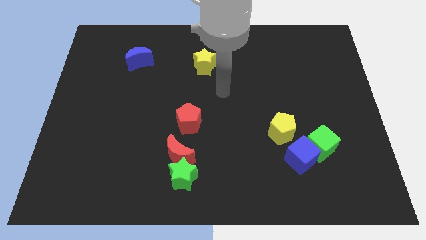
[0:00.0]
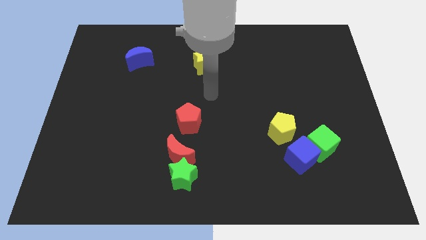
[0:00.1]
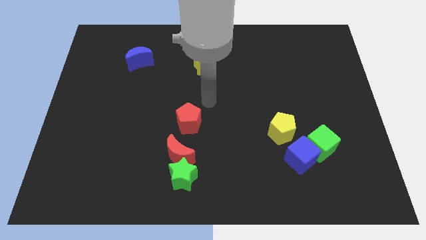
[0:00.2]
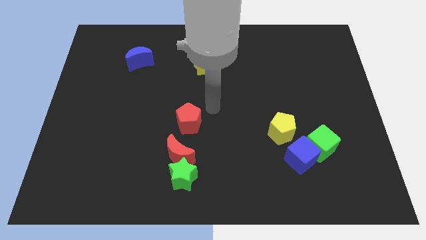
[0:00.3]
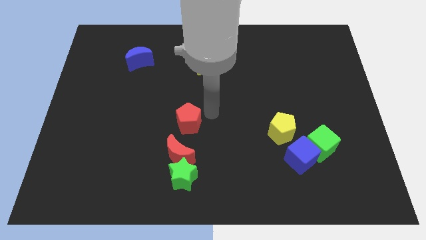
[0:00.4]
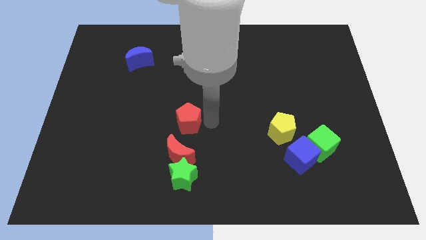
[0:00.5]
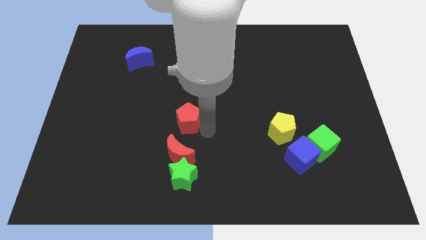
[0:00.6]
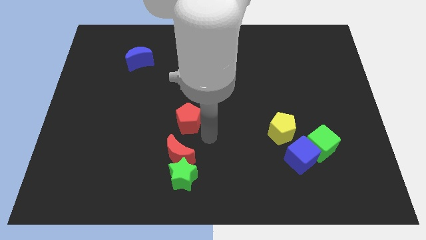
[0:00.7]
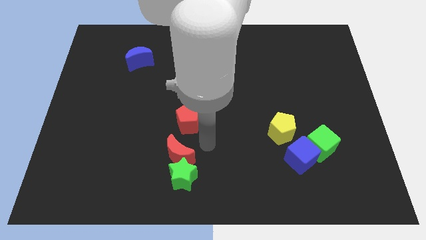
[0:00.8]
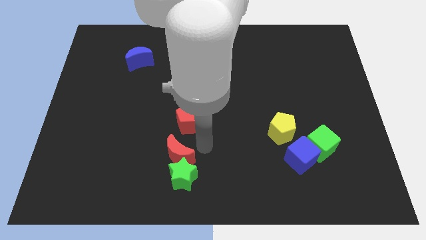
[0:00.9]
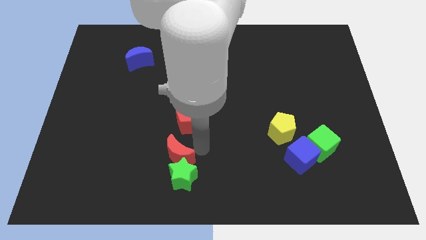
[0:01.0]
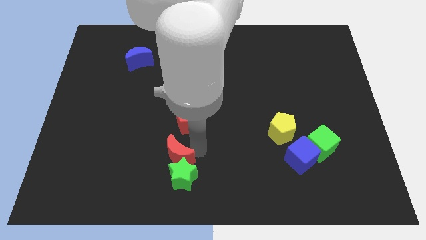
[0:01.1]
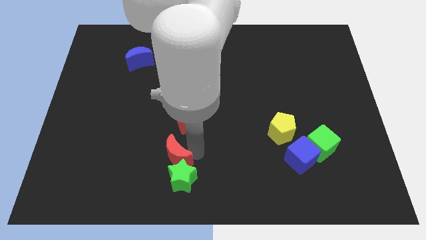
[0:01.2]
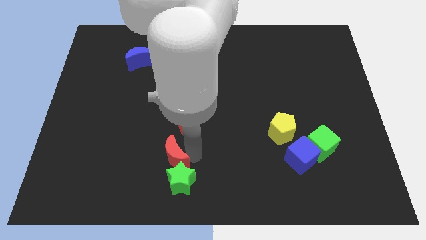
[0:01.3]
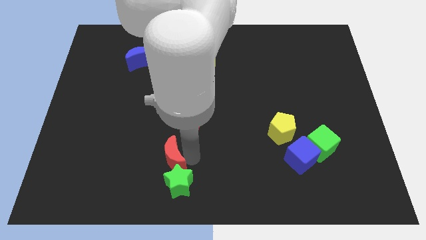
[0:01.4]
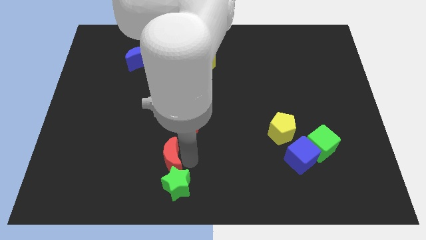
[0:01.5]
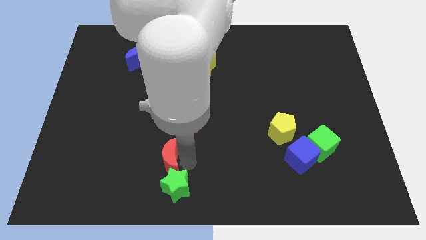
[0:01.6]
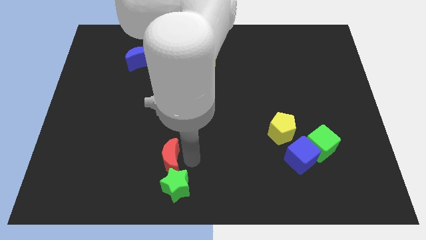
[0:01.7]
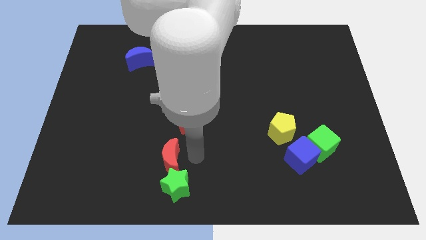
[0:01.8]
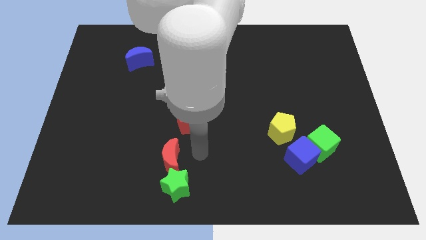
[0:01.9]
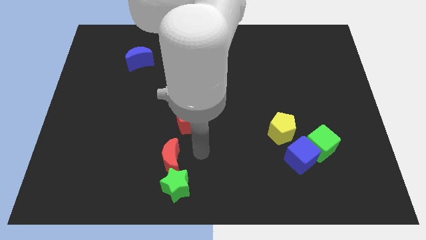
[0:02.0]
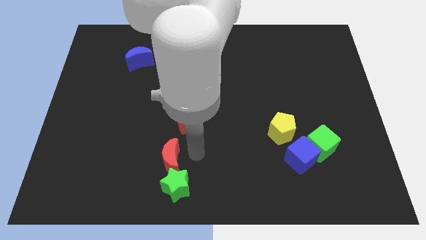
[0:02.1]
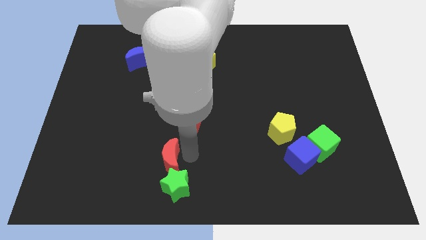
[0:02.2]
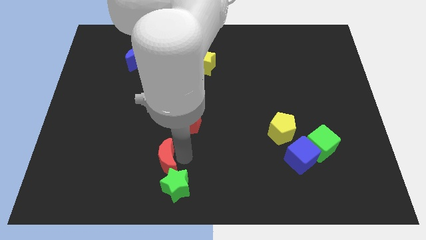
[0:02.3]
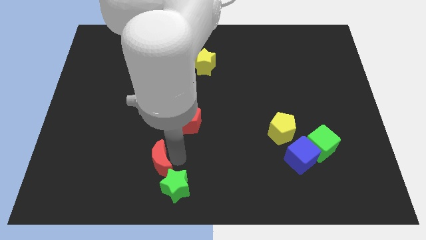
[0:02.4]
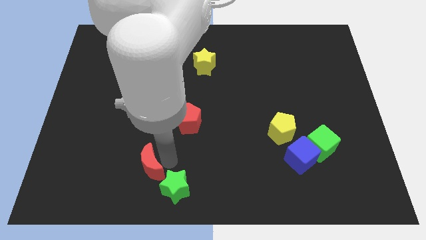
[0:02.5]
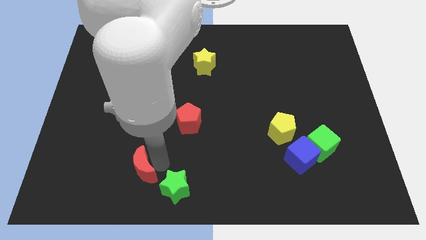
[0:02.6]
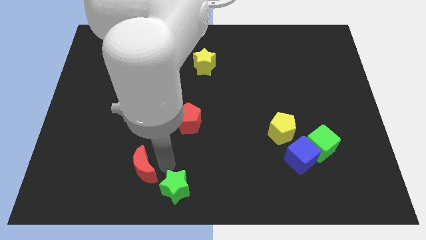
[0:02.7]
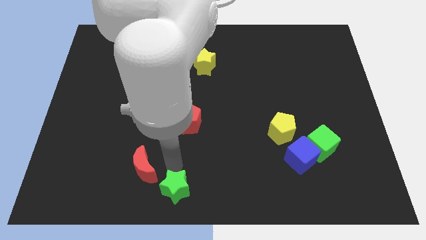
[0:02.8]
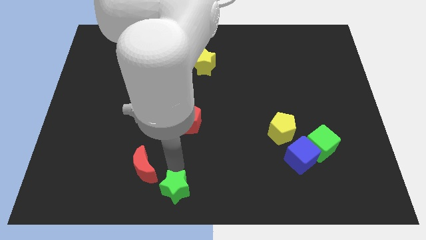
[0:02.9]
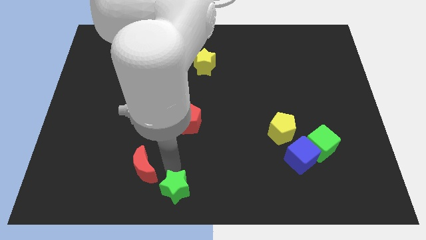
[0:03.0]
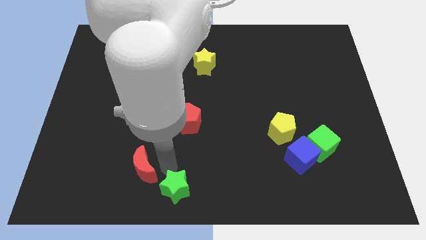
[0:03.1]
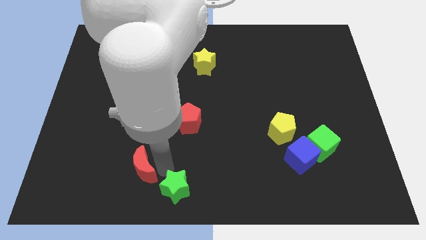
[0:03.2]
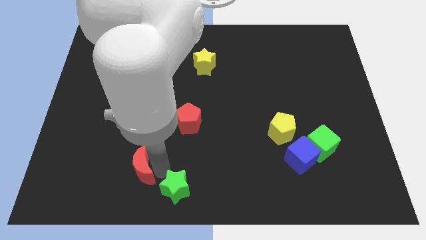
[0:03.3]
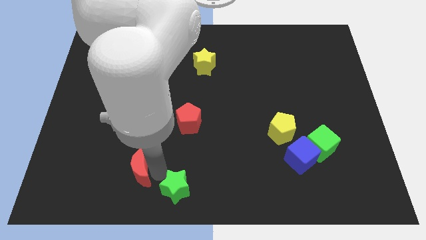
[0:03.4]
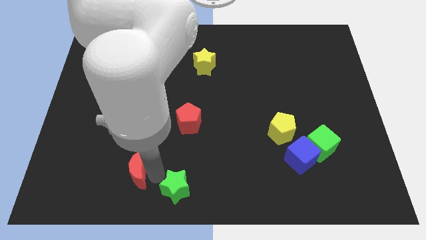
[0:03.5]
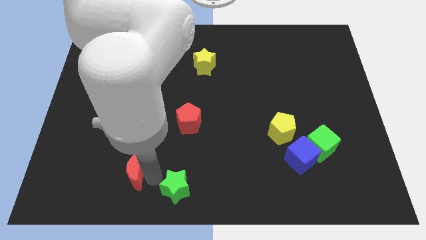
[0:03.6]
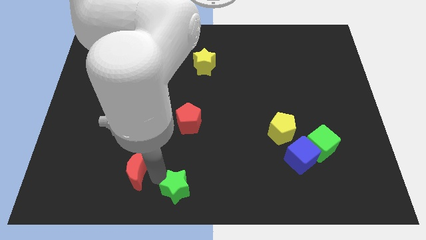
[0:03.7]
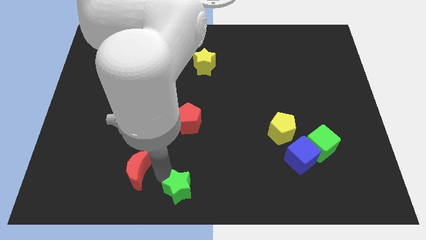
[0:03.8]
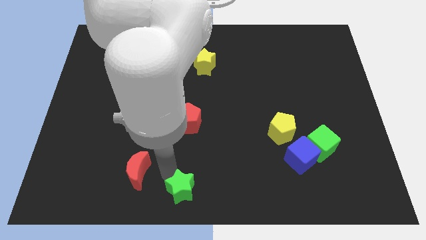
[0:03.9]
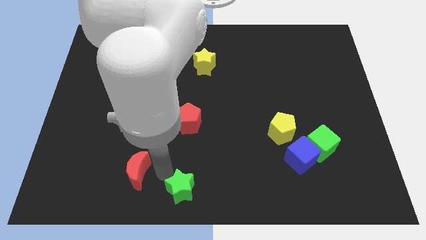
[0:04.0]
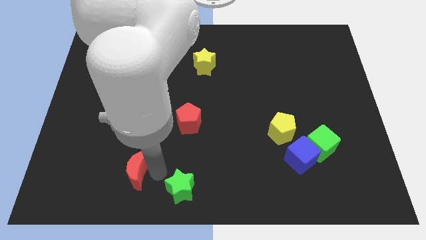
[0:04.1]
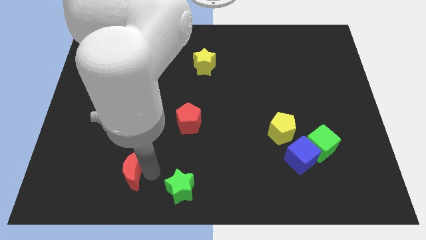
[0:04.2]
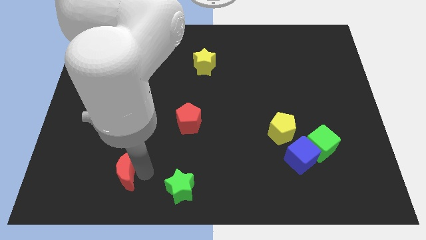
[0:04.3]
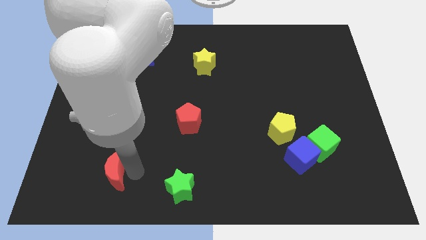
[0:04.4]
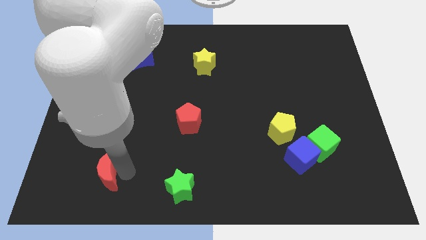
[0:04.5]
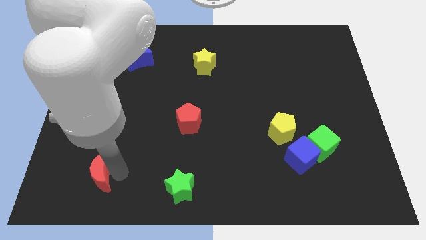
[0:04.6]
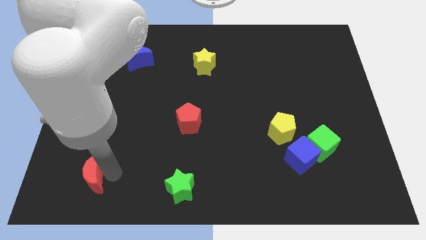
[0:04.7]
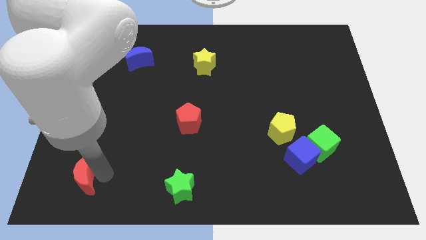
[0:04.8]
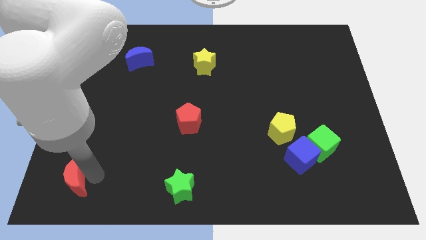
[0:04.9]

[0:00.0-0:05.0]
slide the red moon to the lower left corner
